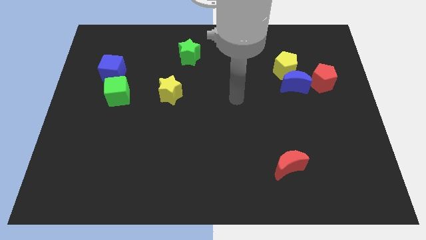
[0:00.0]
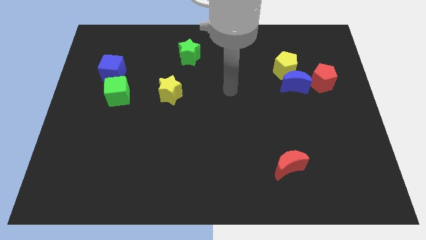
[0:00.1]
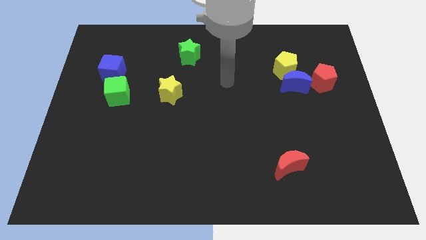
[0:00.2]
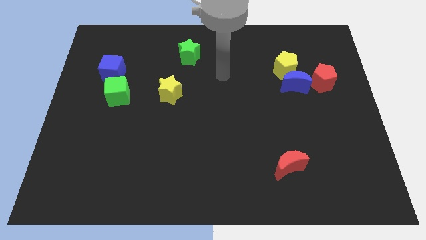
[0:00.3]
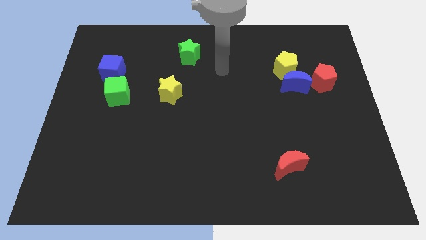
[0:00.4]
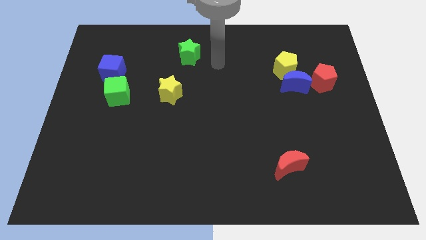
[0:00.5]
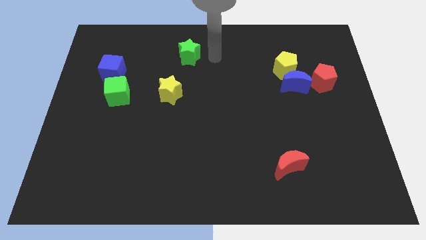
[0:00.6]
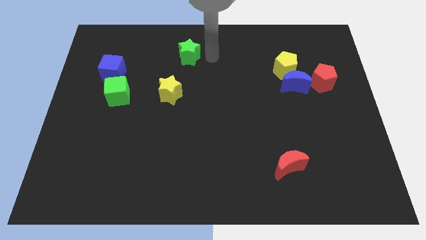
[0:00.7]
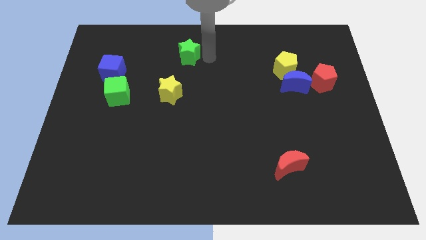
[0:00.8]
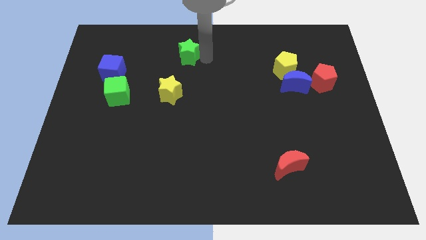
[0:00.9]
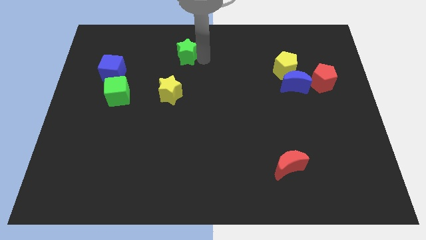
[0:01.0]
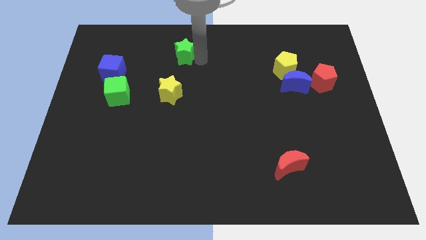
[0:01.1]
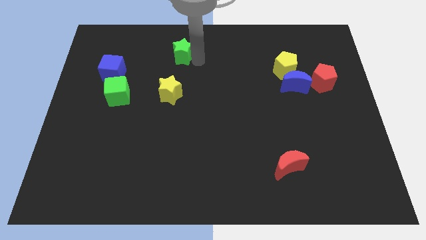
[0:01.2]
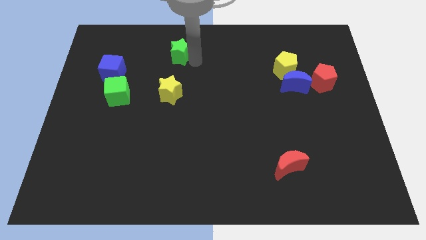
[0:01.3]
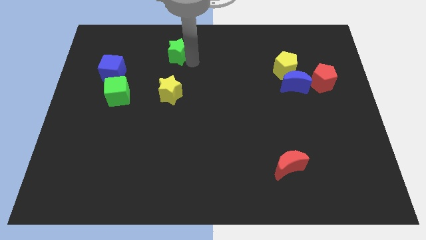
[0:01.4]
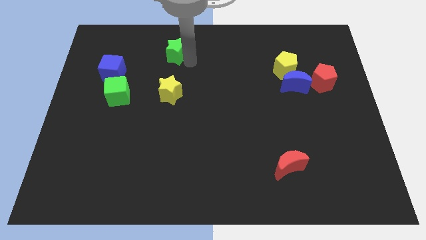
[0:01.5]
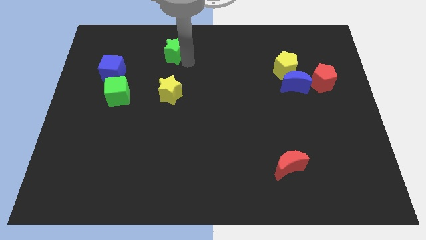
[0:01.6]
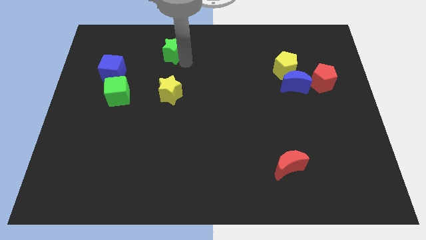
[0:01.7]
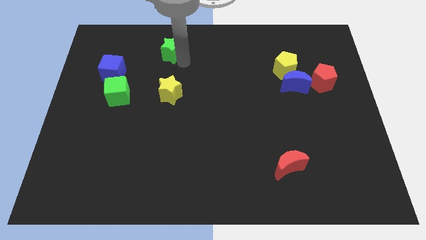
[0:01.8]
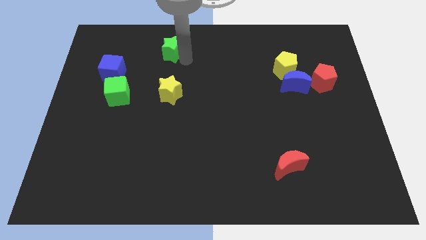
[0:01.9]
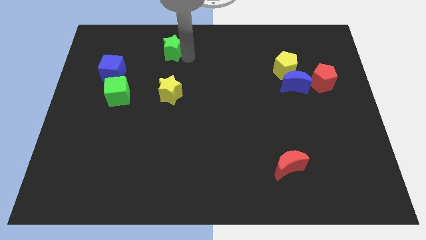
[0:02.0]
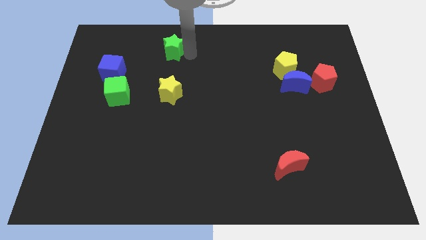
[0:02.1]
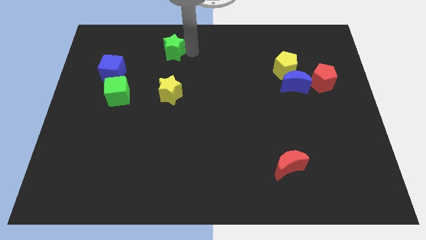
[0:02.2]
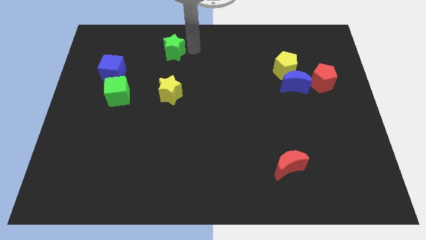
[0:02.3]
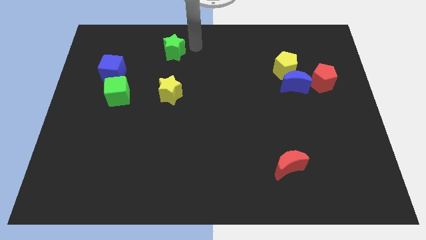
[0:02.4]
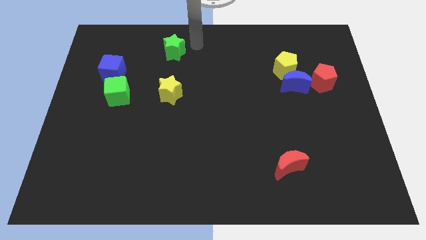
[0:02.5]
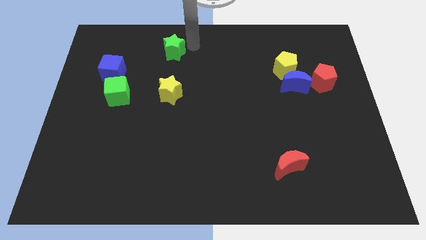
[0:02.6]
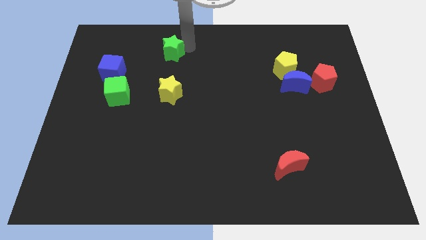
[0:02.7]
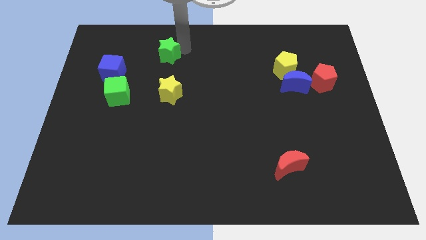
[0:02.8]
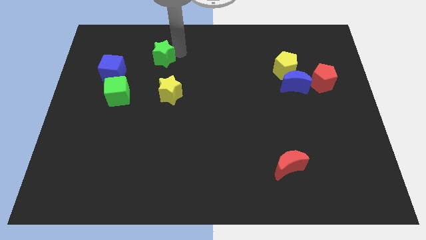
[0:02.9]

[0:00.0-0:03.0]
slide the green star to the left a little

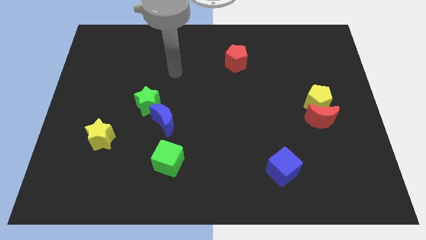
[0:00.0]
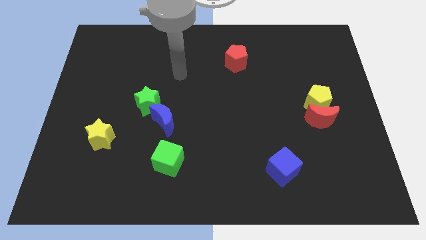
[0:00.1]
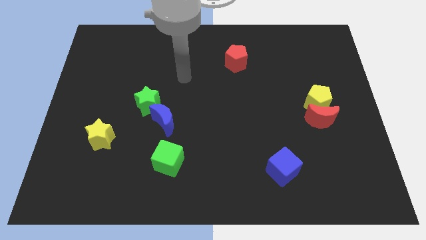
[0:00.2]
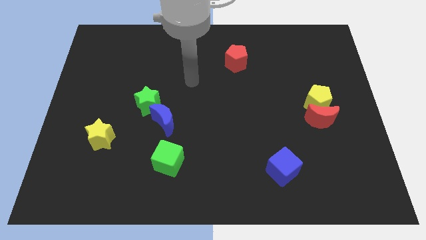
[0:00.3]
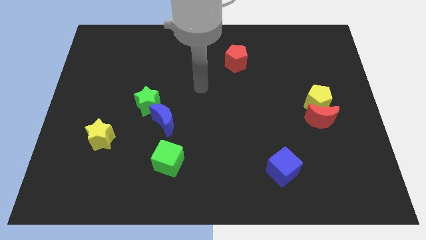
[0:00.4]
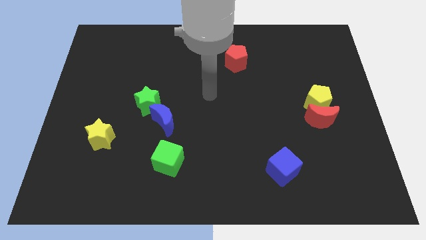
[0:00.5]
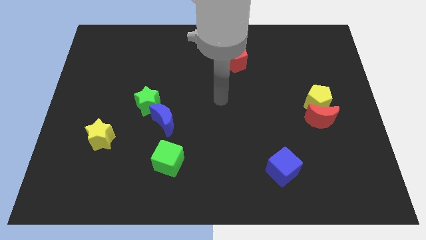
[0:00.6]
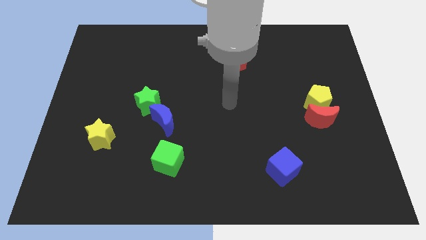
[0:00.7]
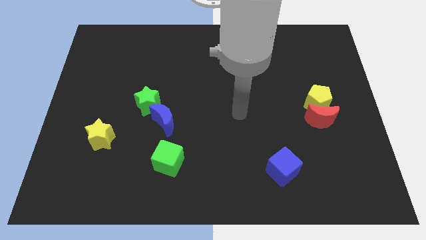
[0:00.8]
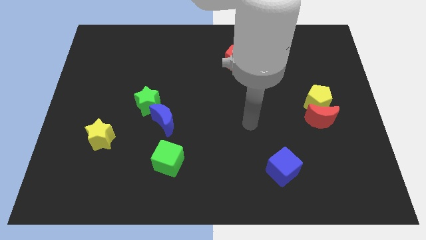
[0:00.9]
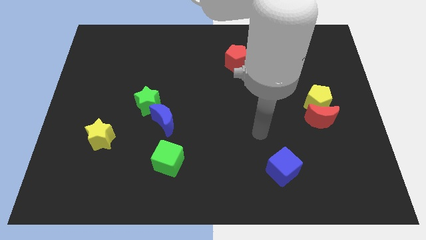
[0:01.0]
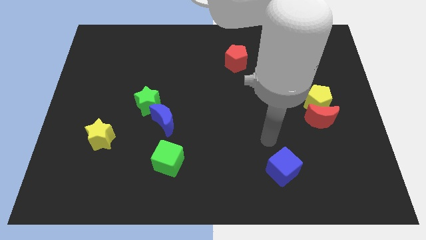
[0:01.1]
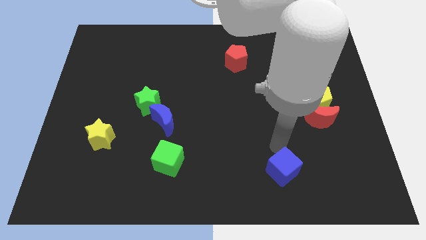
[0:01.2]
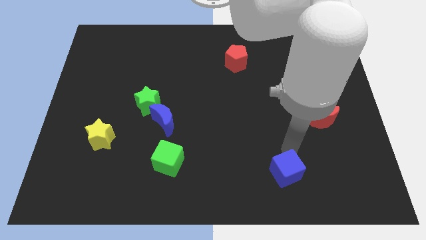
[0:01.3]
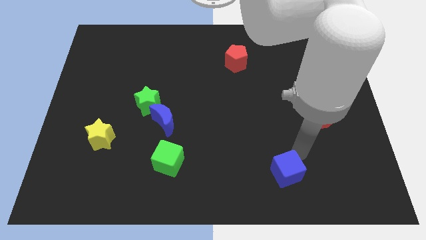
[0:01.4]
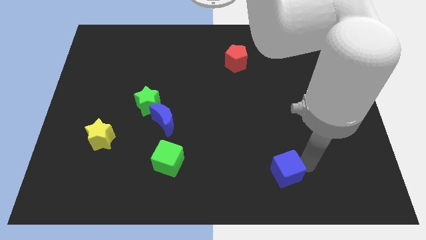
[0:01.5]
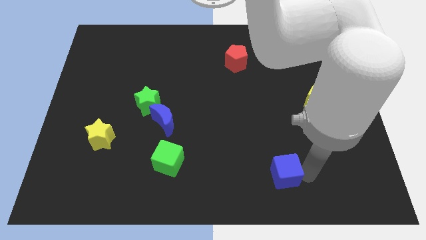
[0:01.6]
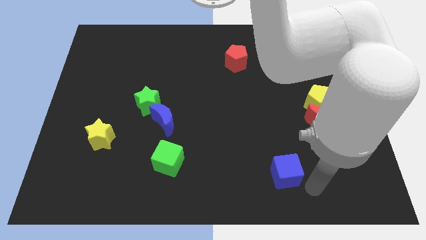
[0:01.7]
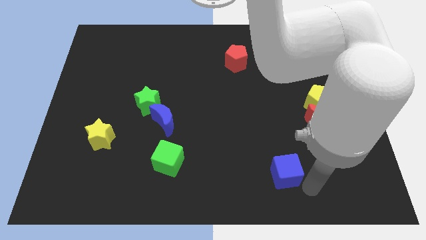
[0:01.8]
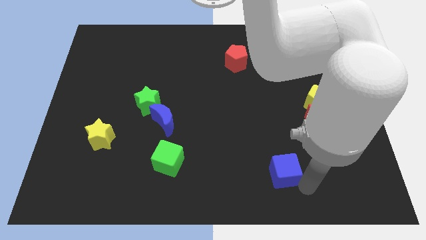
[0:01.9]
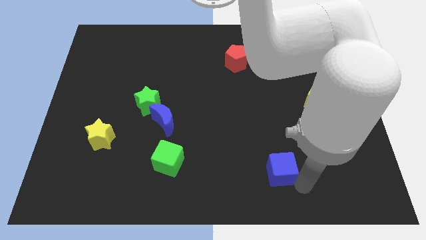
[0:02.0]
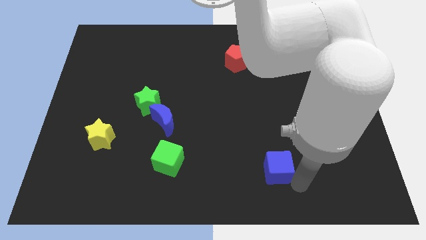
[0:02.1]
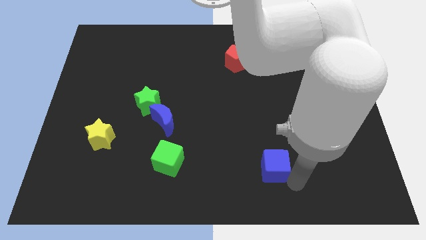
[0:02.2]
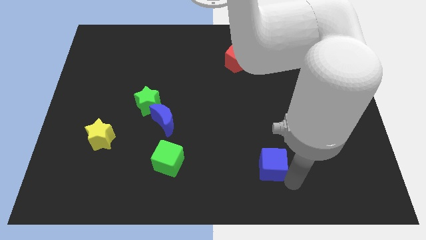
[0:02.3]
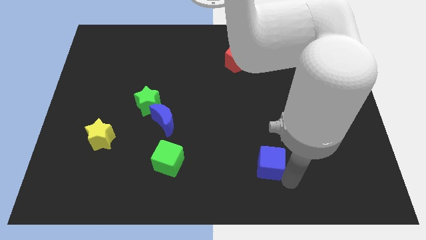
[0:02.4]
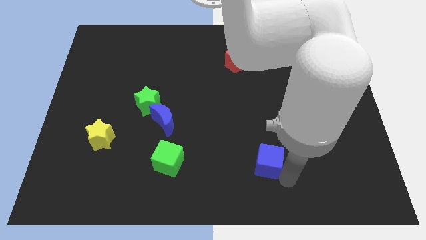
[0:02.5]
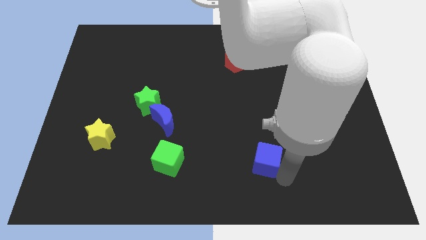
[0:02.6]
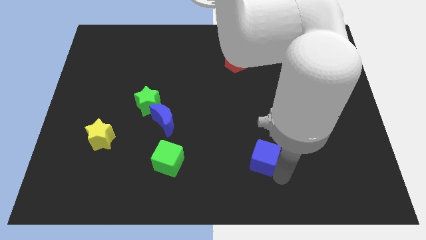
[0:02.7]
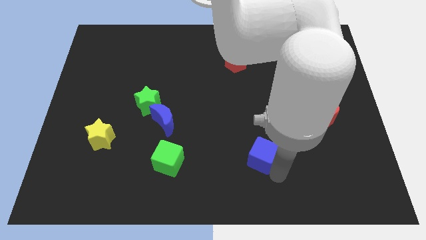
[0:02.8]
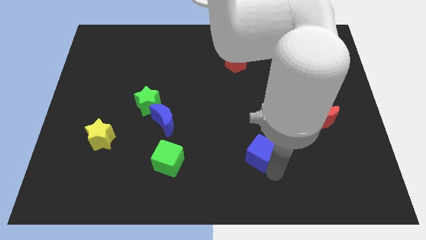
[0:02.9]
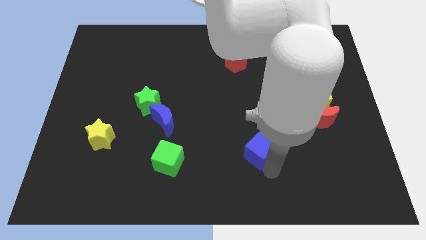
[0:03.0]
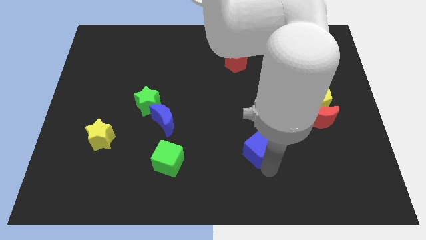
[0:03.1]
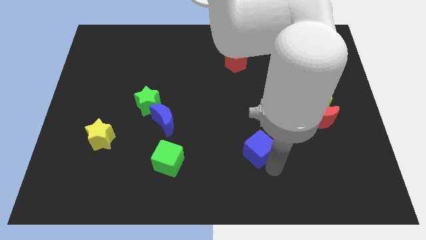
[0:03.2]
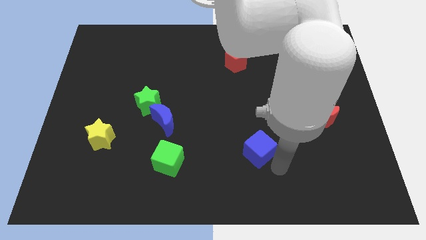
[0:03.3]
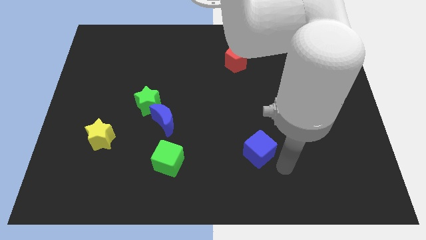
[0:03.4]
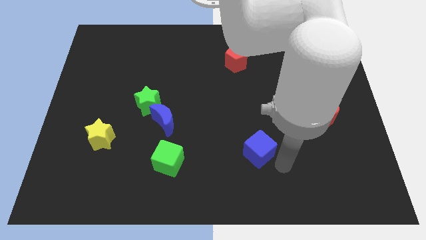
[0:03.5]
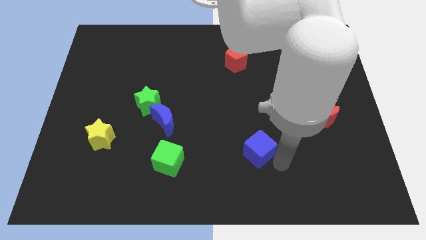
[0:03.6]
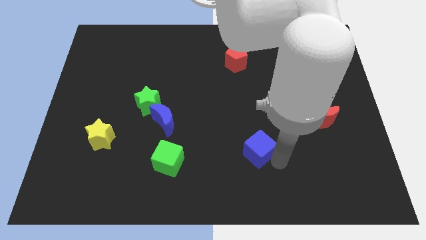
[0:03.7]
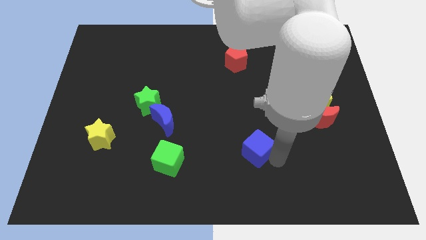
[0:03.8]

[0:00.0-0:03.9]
slightly push the blue cube upwards and then to the left

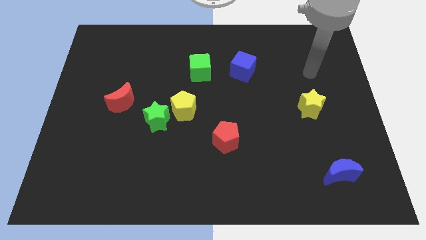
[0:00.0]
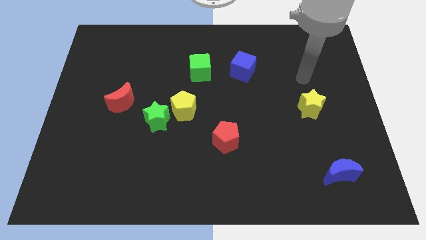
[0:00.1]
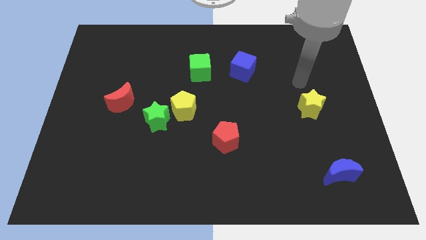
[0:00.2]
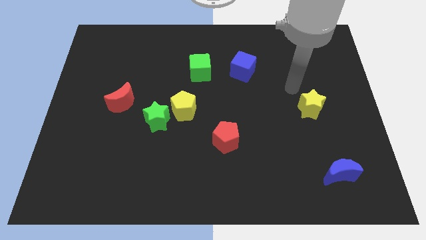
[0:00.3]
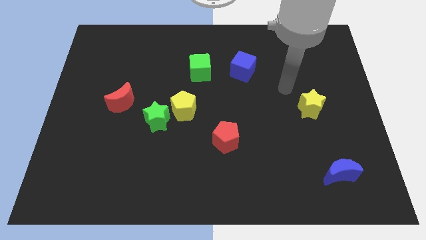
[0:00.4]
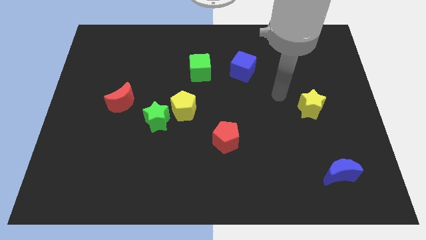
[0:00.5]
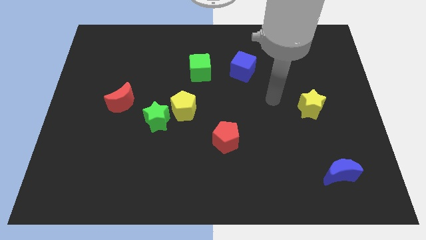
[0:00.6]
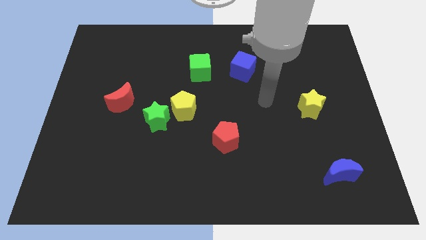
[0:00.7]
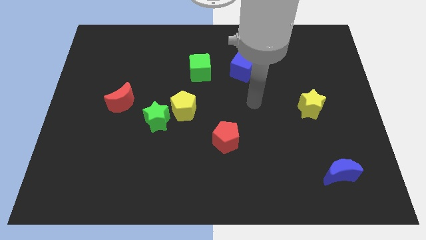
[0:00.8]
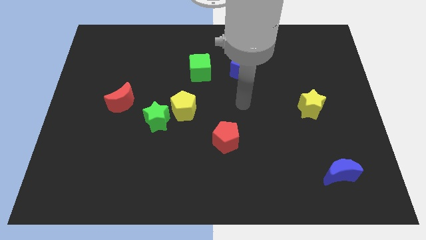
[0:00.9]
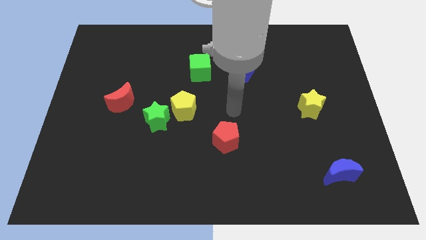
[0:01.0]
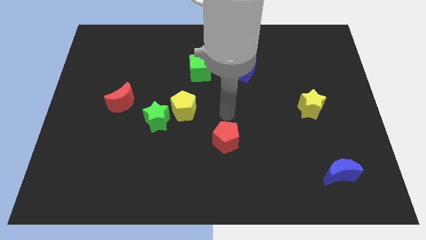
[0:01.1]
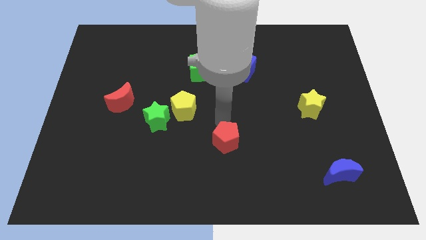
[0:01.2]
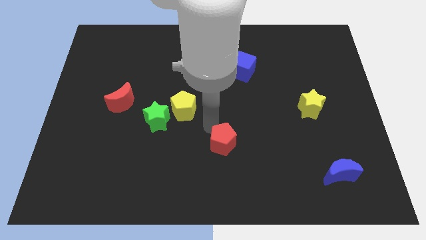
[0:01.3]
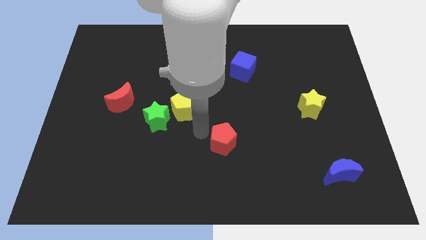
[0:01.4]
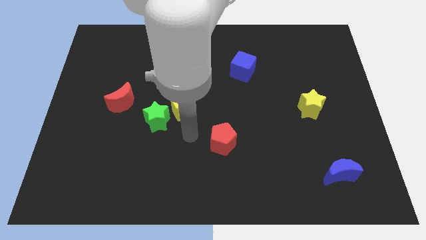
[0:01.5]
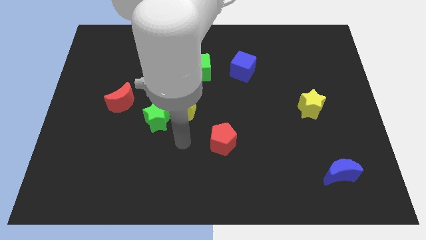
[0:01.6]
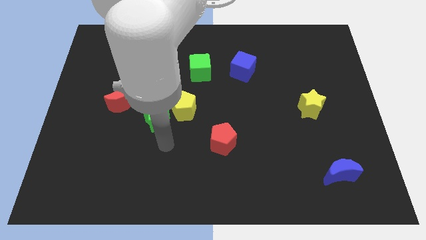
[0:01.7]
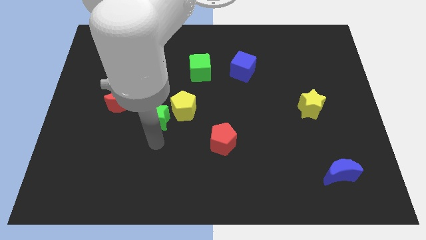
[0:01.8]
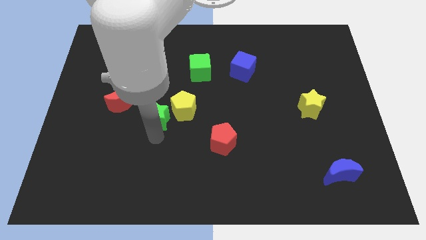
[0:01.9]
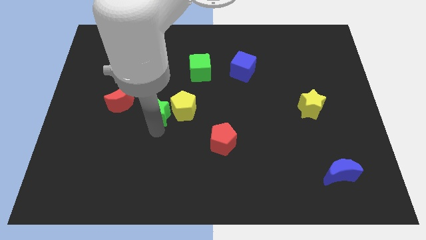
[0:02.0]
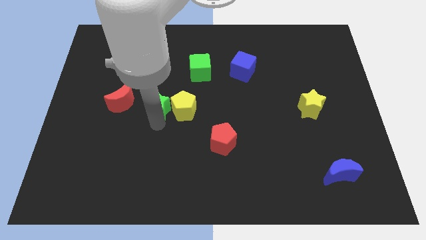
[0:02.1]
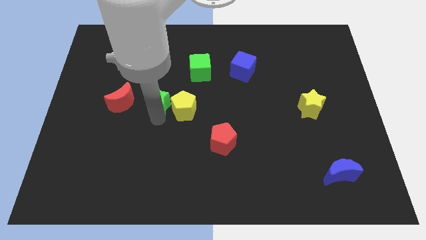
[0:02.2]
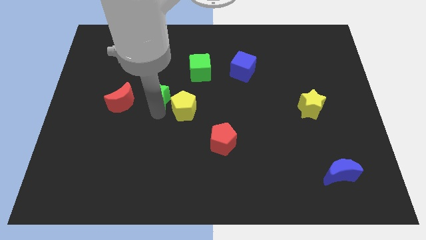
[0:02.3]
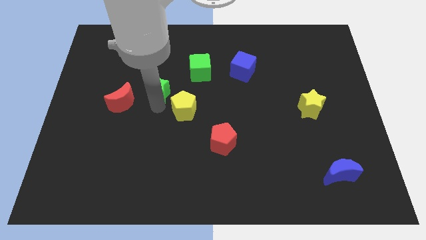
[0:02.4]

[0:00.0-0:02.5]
slide the green star upwards somewhat
